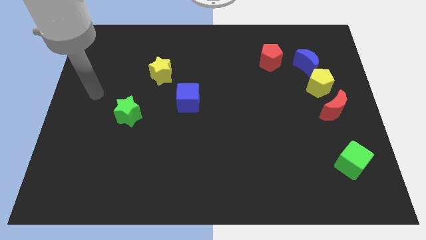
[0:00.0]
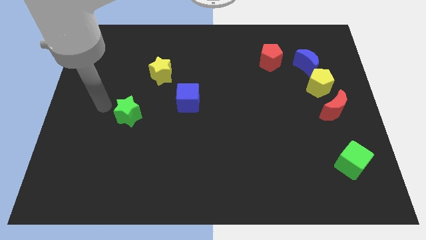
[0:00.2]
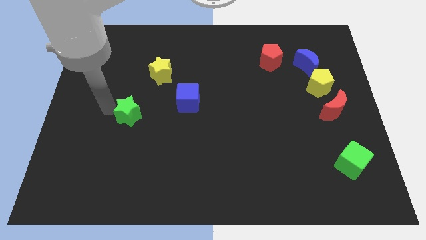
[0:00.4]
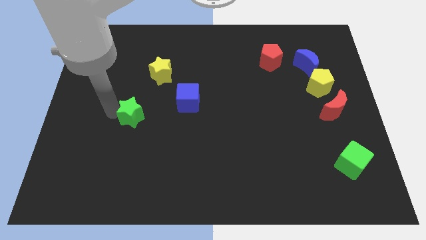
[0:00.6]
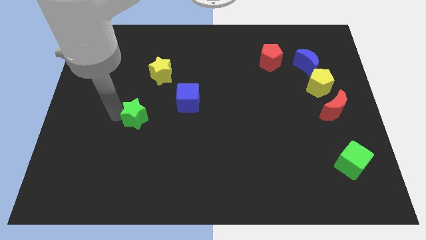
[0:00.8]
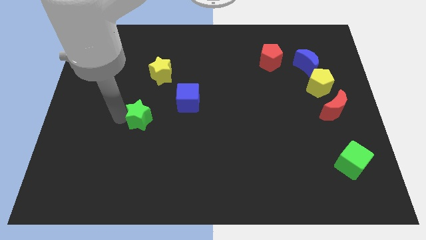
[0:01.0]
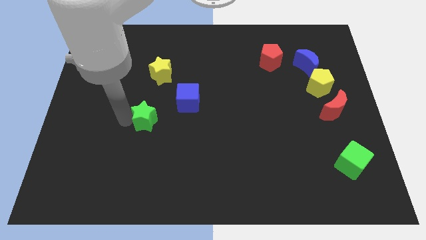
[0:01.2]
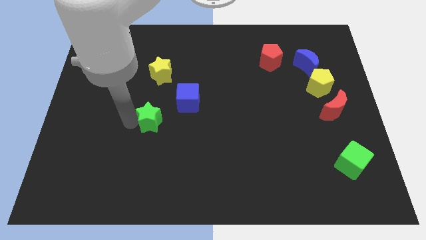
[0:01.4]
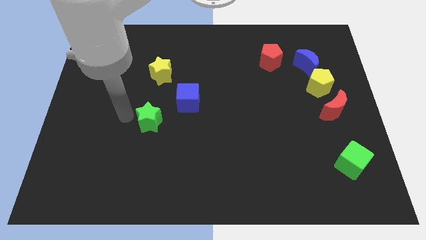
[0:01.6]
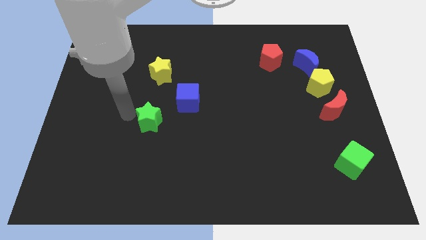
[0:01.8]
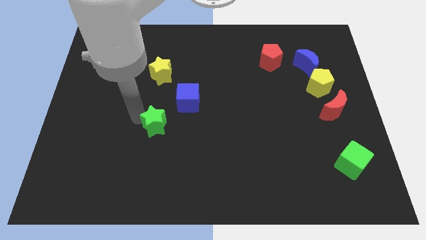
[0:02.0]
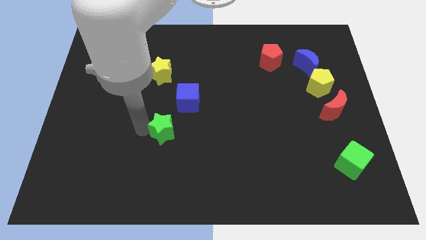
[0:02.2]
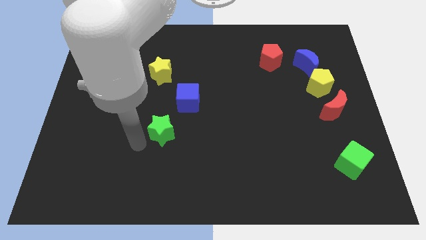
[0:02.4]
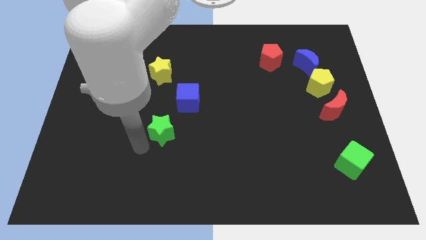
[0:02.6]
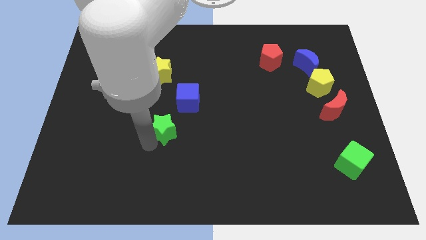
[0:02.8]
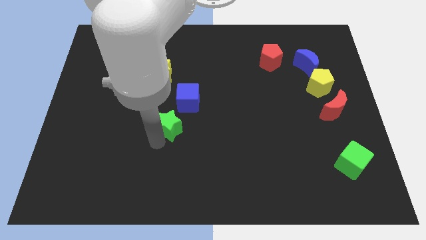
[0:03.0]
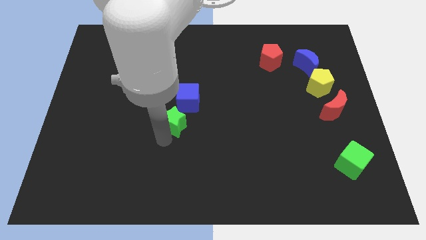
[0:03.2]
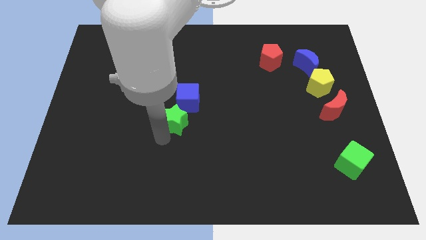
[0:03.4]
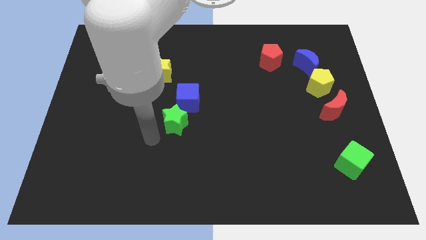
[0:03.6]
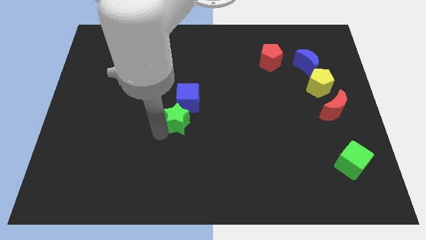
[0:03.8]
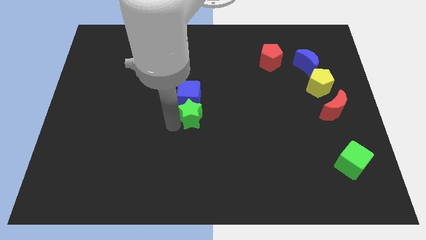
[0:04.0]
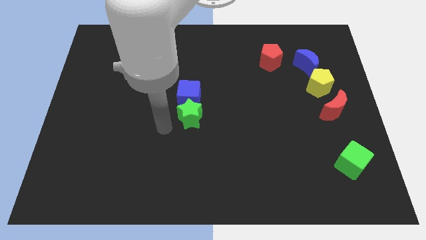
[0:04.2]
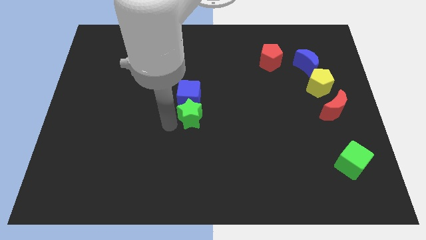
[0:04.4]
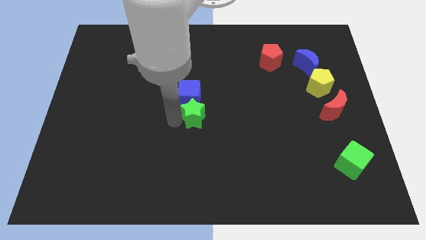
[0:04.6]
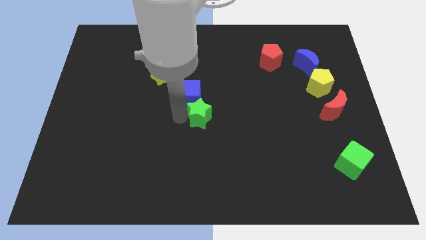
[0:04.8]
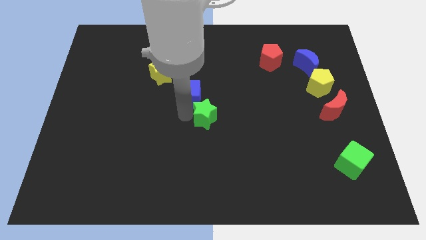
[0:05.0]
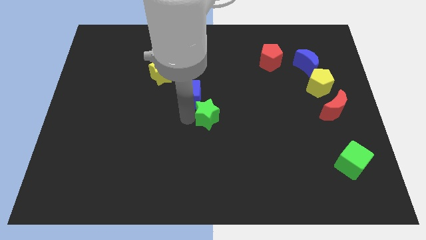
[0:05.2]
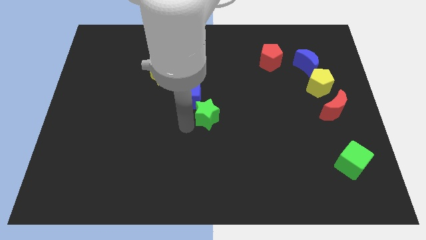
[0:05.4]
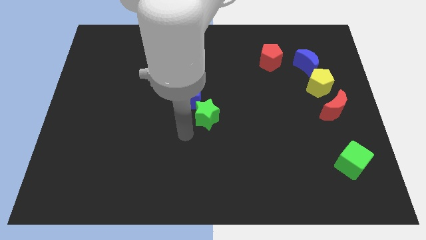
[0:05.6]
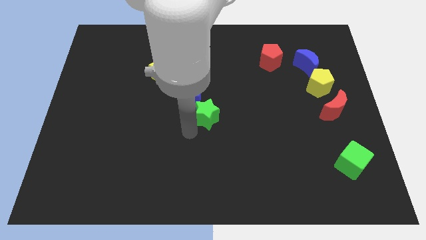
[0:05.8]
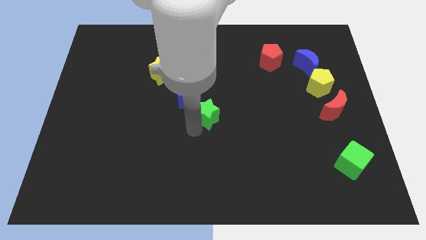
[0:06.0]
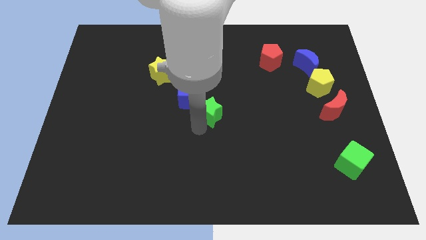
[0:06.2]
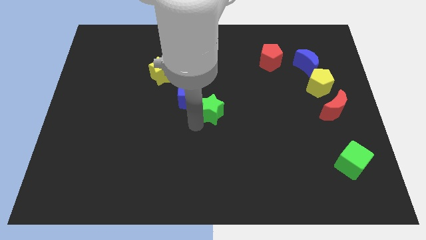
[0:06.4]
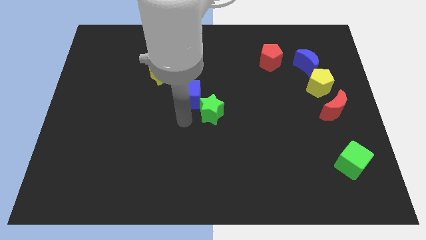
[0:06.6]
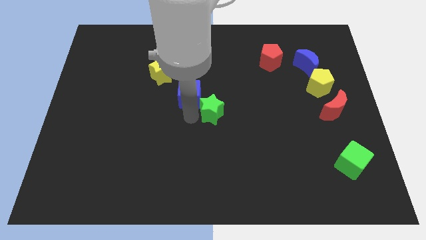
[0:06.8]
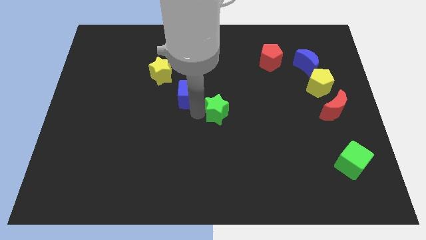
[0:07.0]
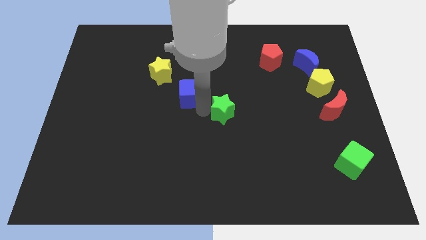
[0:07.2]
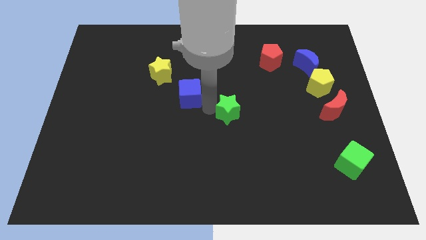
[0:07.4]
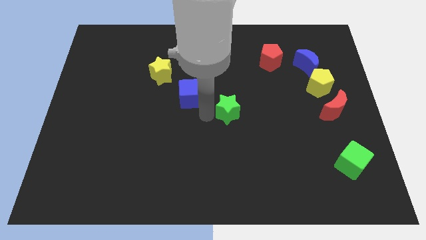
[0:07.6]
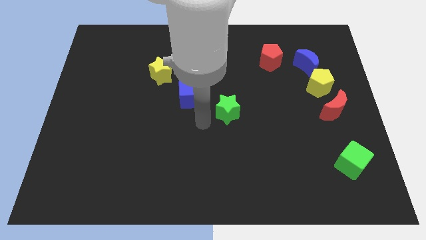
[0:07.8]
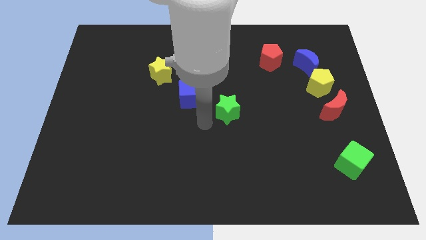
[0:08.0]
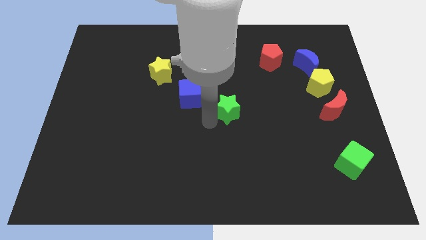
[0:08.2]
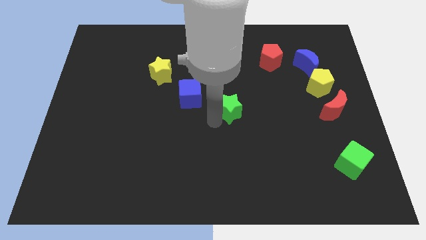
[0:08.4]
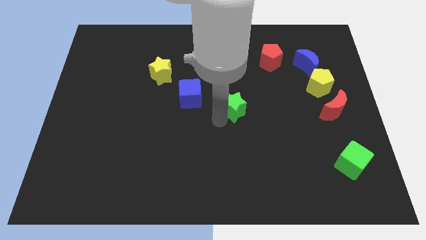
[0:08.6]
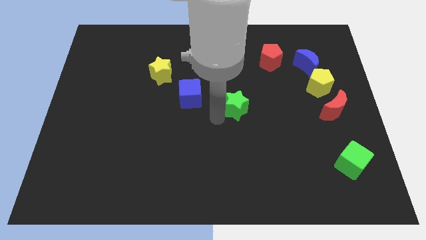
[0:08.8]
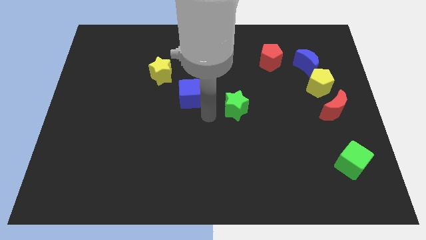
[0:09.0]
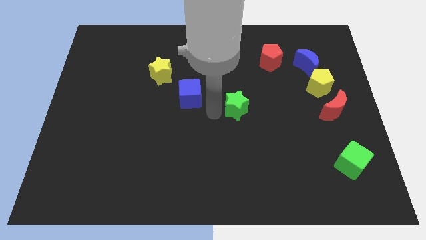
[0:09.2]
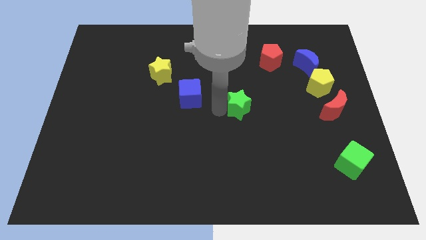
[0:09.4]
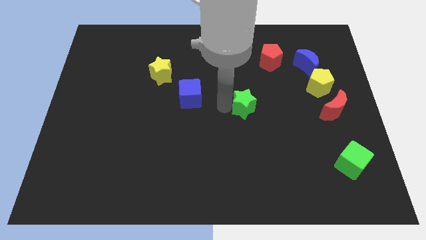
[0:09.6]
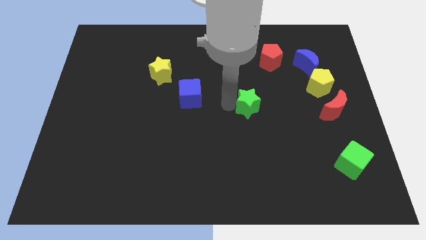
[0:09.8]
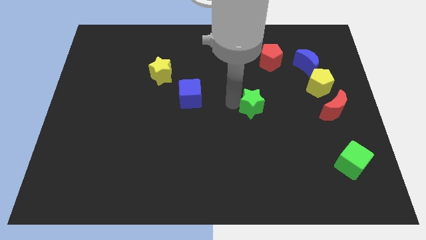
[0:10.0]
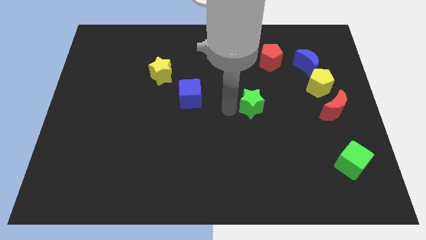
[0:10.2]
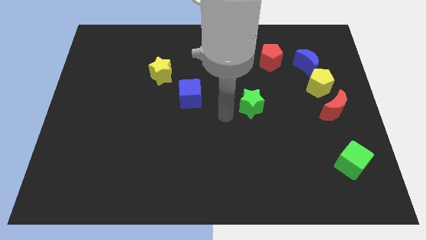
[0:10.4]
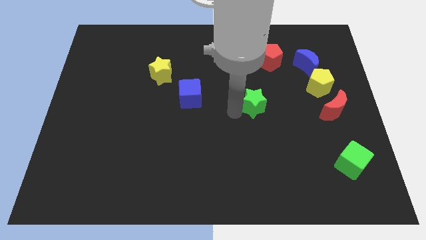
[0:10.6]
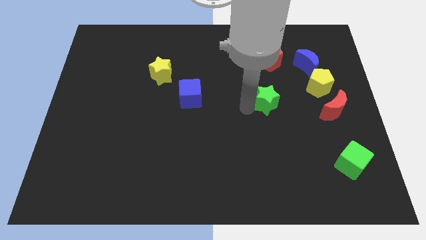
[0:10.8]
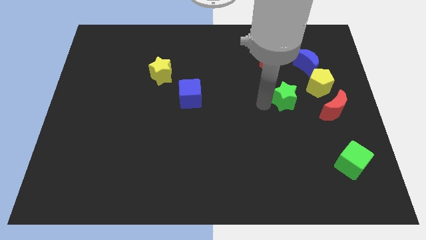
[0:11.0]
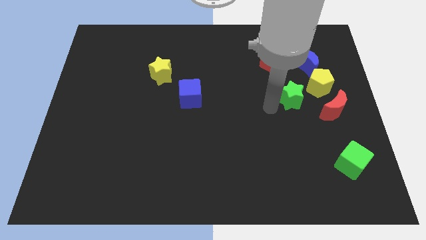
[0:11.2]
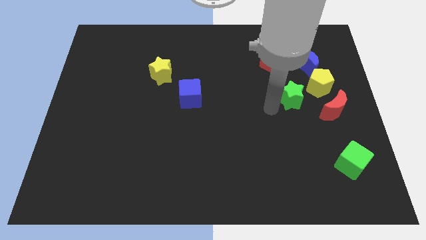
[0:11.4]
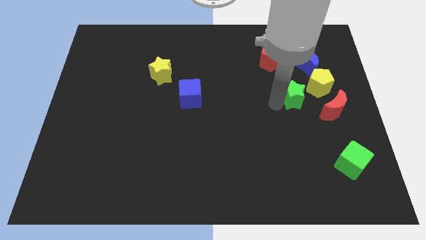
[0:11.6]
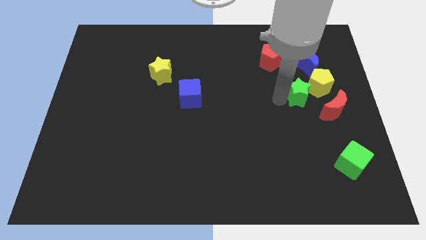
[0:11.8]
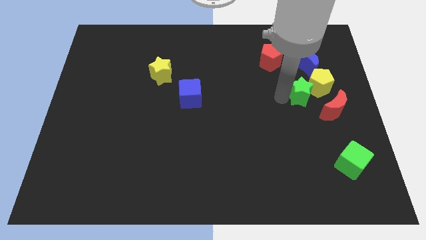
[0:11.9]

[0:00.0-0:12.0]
put the green star to the yellow pentagon

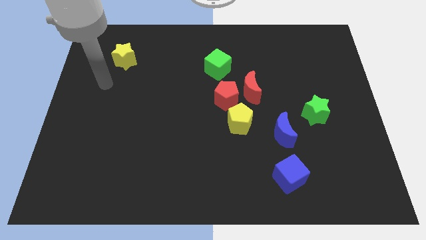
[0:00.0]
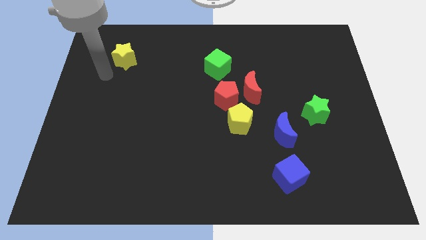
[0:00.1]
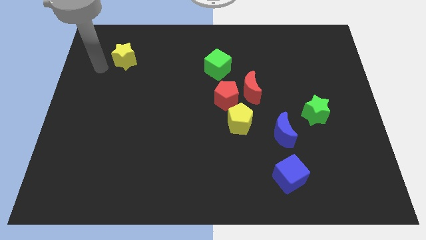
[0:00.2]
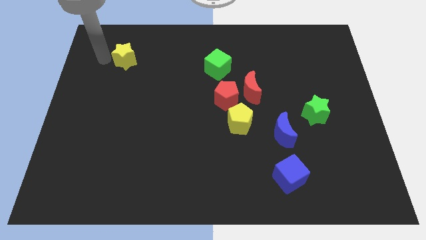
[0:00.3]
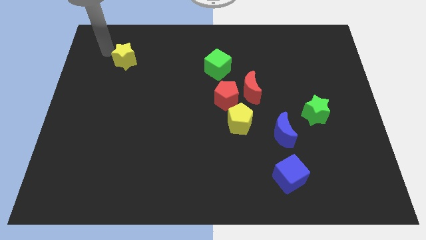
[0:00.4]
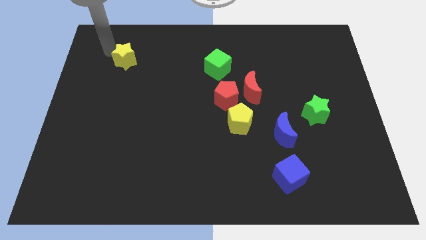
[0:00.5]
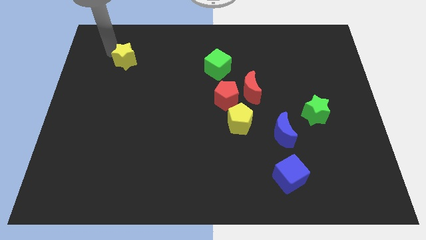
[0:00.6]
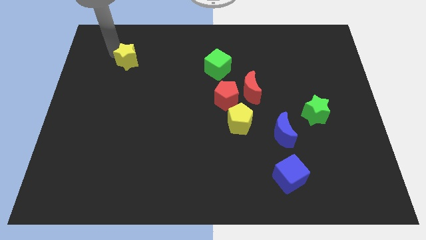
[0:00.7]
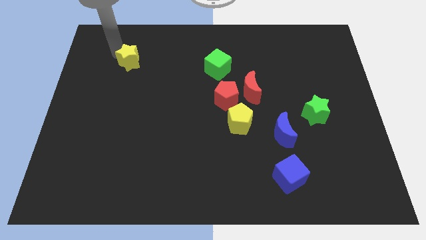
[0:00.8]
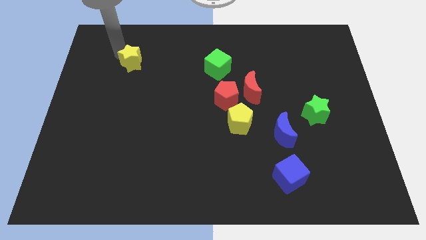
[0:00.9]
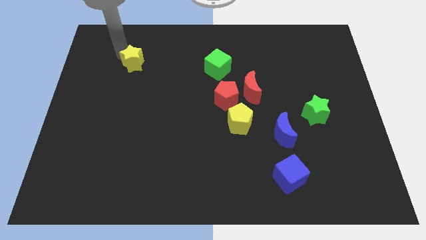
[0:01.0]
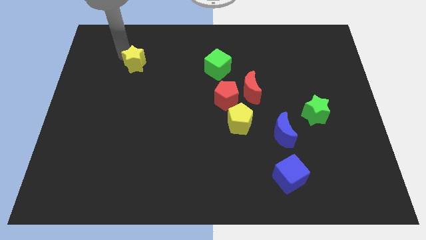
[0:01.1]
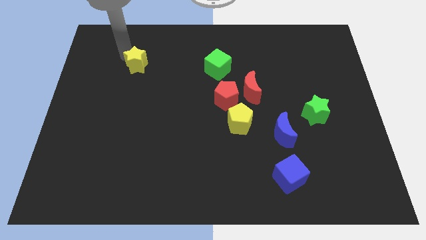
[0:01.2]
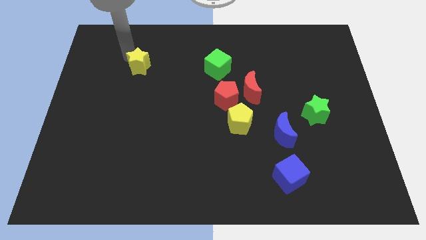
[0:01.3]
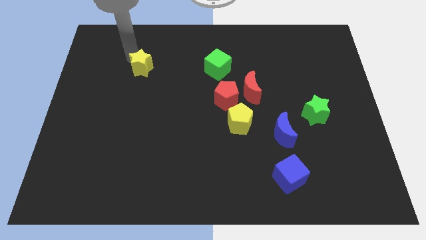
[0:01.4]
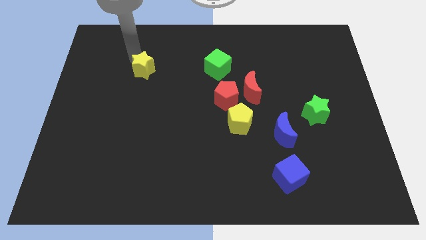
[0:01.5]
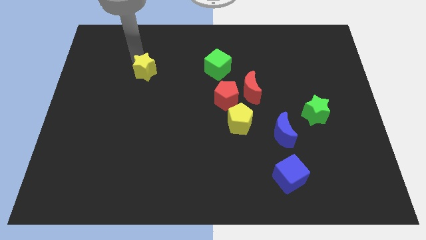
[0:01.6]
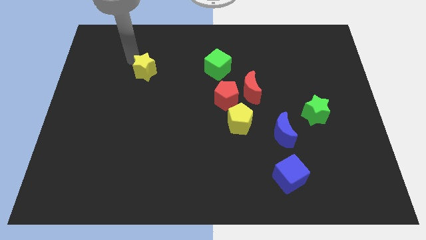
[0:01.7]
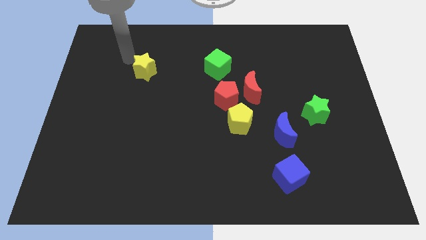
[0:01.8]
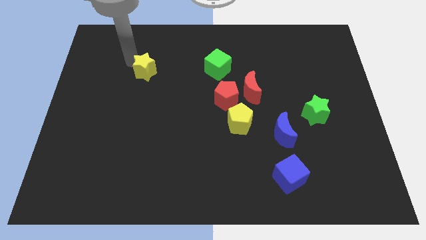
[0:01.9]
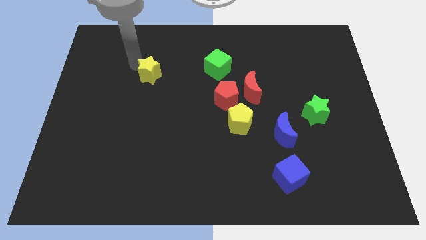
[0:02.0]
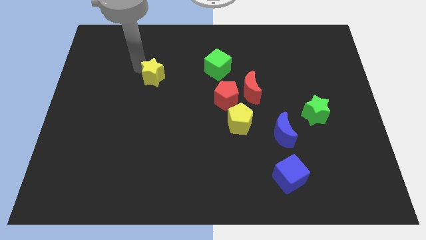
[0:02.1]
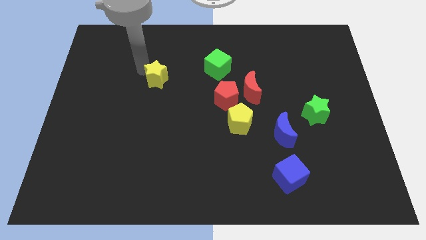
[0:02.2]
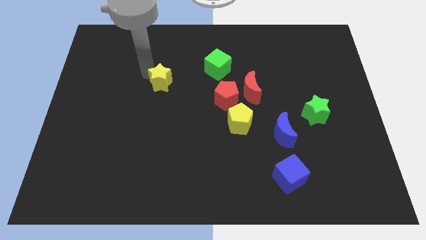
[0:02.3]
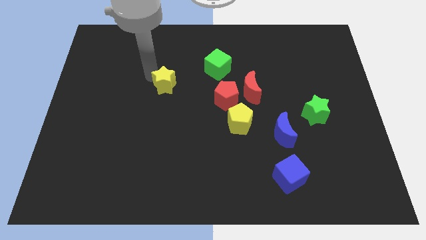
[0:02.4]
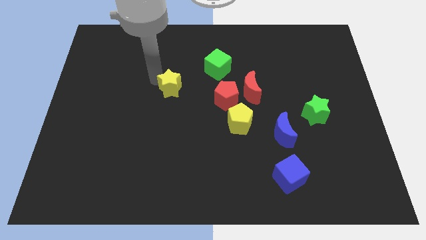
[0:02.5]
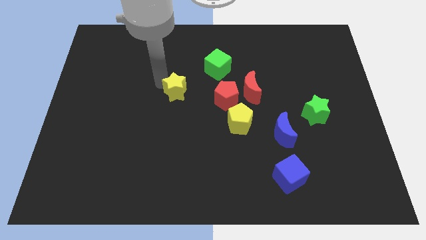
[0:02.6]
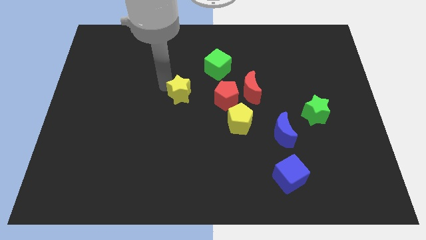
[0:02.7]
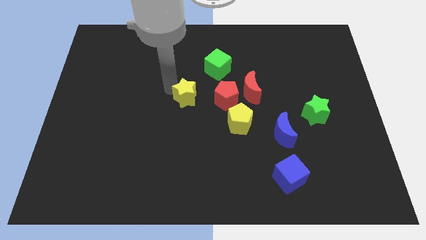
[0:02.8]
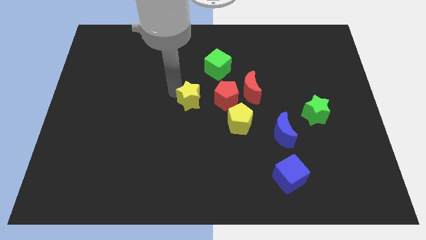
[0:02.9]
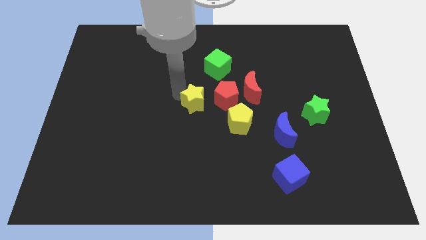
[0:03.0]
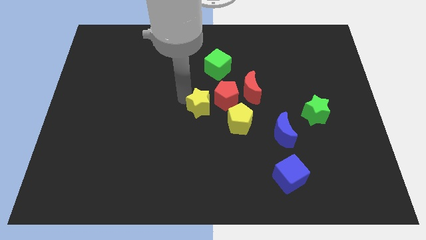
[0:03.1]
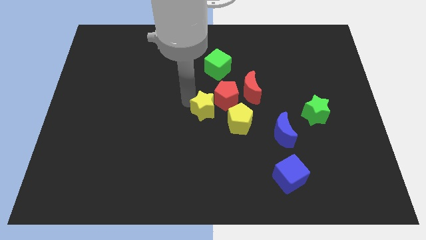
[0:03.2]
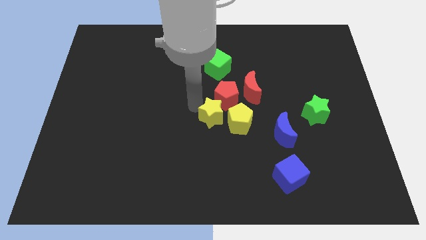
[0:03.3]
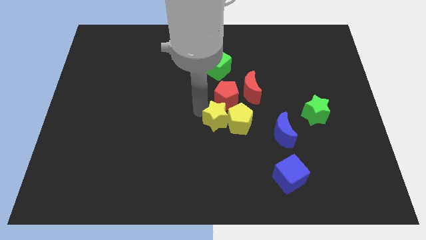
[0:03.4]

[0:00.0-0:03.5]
push the yellow star to the yellow pentagon
